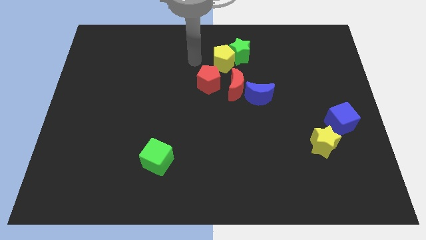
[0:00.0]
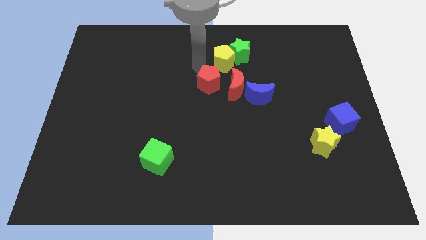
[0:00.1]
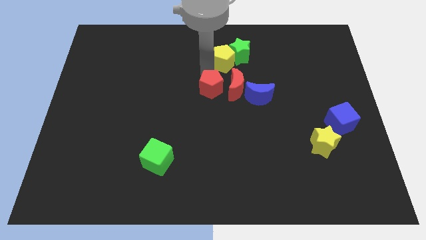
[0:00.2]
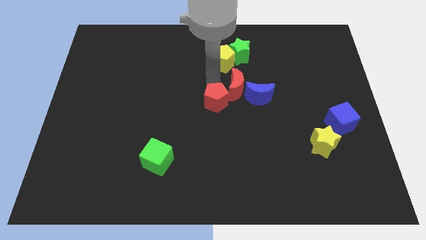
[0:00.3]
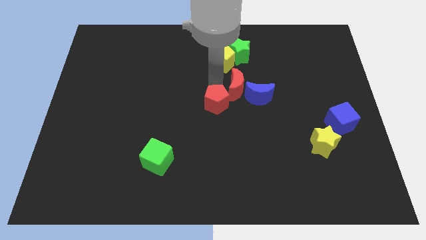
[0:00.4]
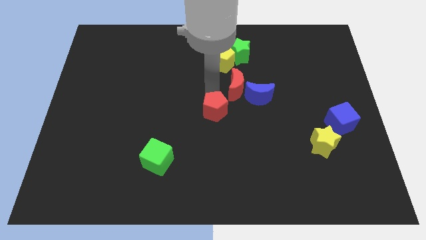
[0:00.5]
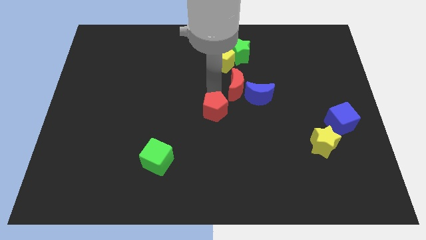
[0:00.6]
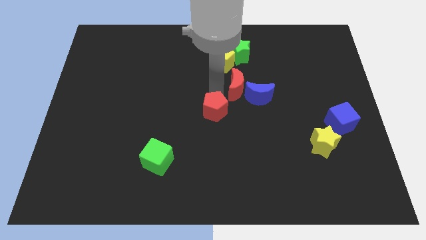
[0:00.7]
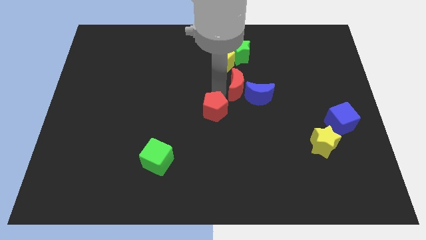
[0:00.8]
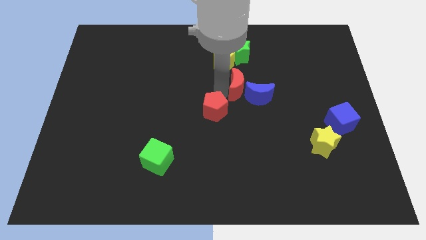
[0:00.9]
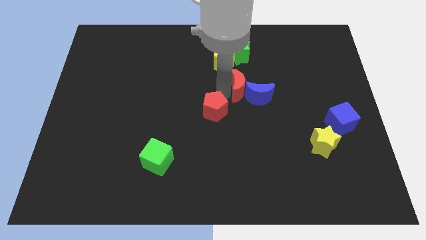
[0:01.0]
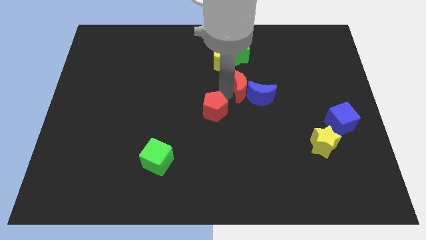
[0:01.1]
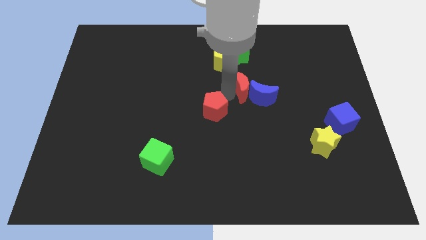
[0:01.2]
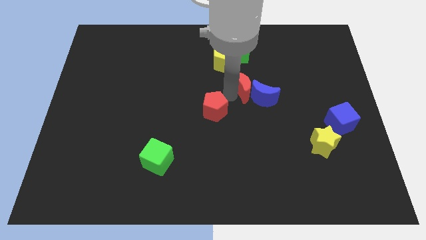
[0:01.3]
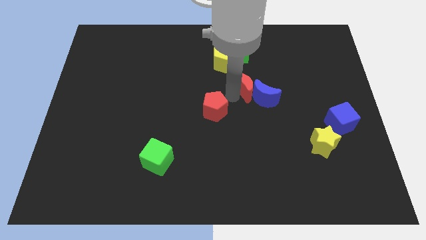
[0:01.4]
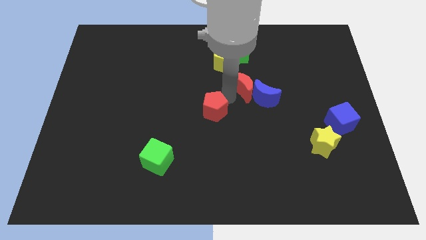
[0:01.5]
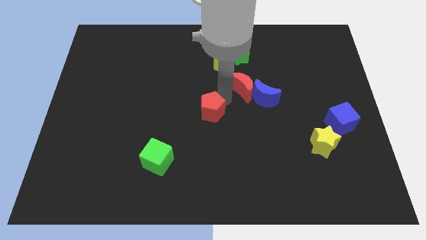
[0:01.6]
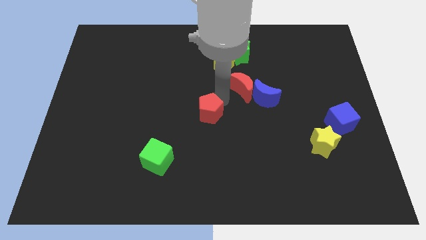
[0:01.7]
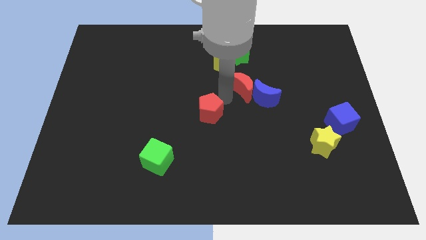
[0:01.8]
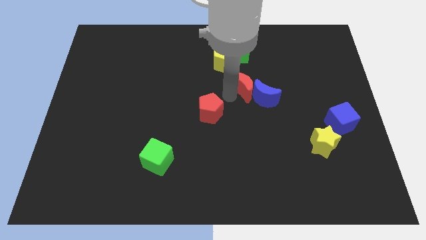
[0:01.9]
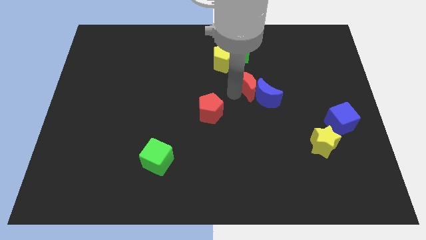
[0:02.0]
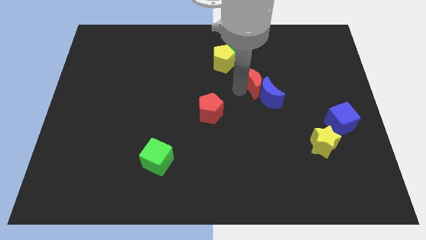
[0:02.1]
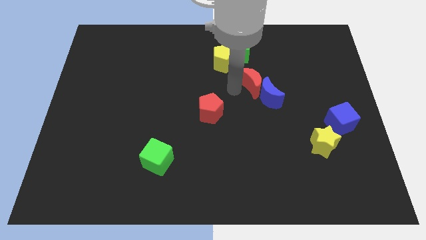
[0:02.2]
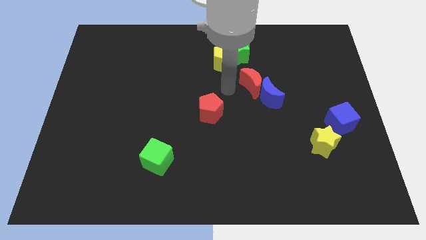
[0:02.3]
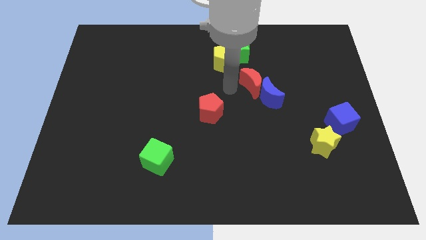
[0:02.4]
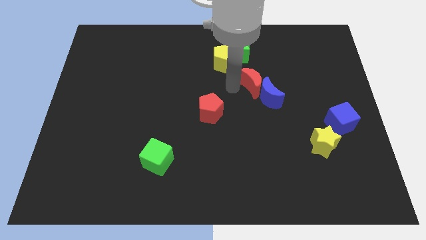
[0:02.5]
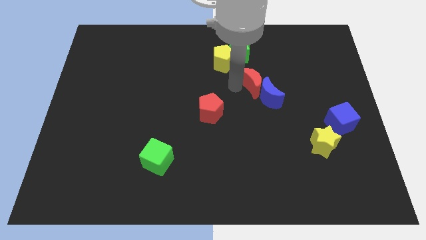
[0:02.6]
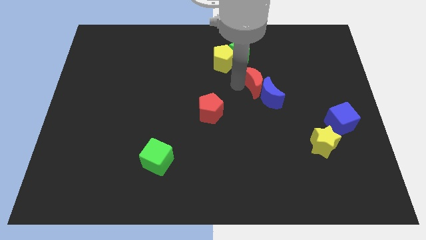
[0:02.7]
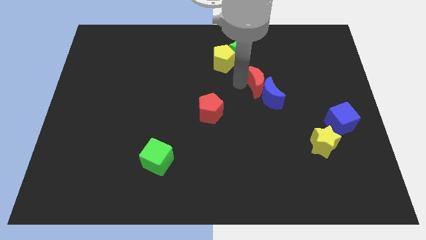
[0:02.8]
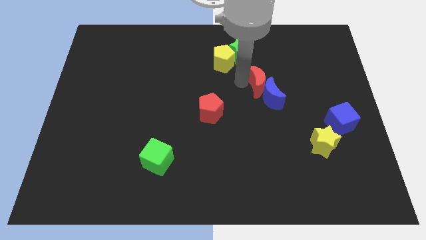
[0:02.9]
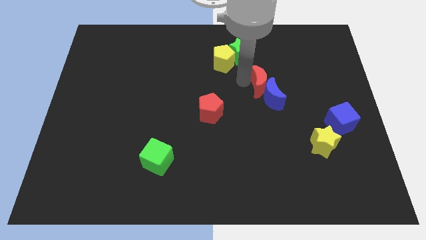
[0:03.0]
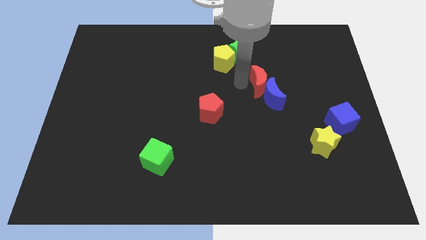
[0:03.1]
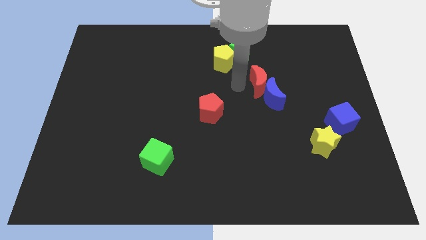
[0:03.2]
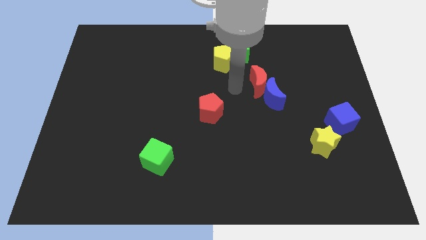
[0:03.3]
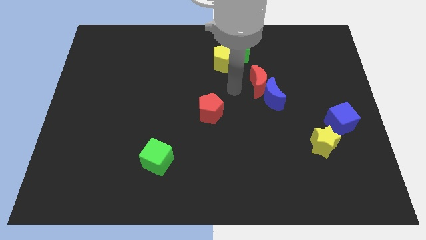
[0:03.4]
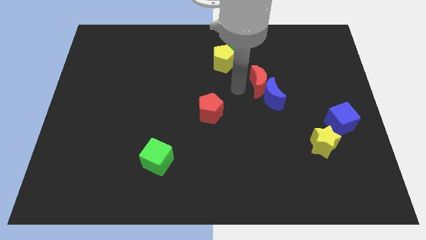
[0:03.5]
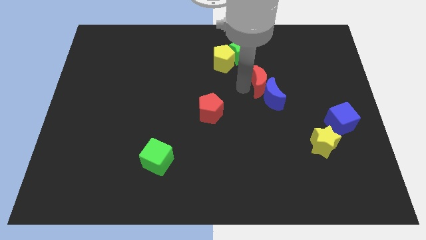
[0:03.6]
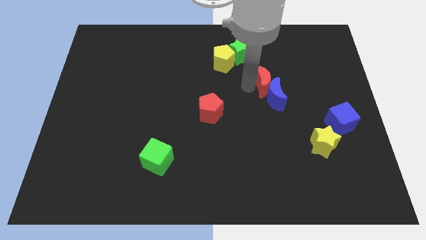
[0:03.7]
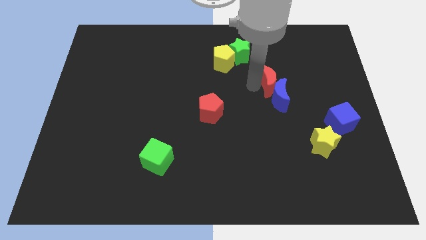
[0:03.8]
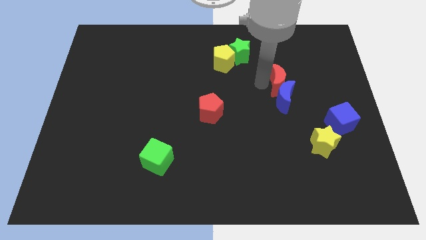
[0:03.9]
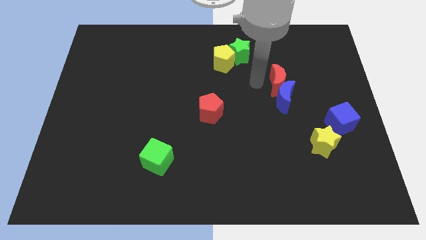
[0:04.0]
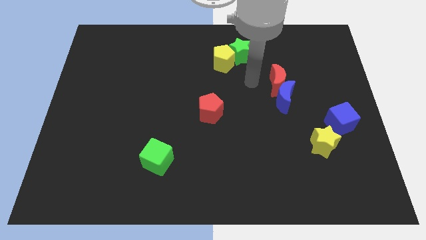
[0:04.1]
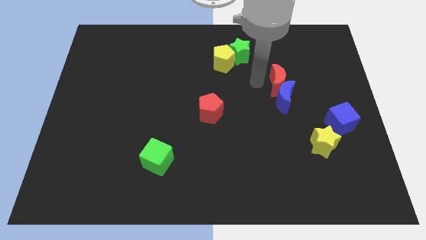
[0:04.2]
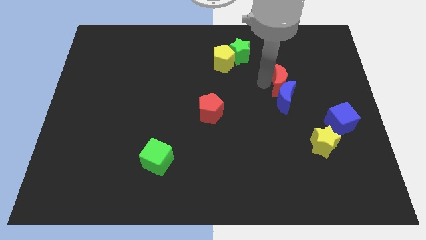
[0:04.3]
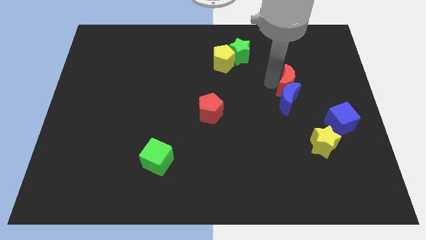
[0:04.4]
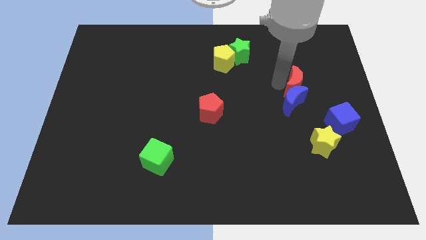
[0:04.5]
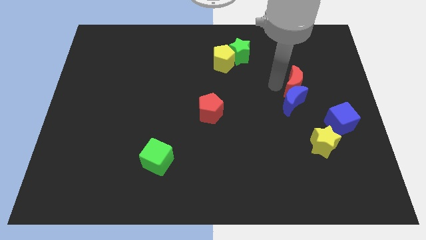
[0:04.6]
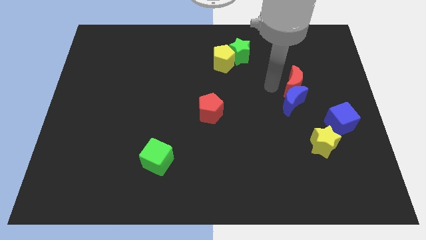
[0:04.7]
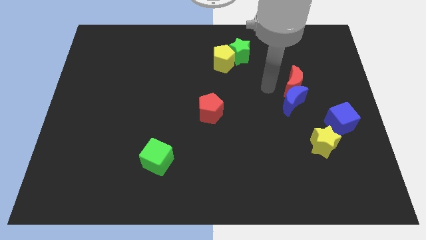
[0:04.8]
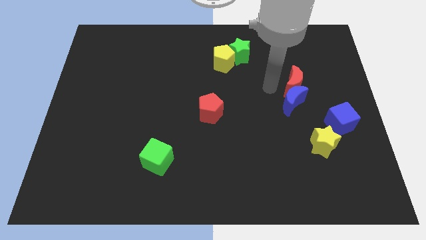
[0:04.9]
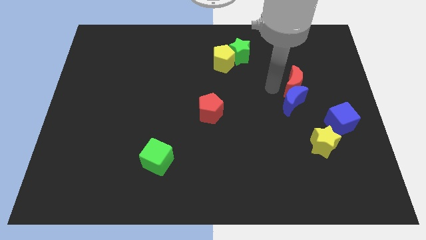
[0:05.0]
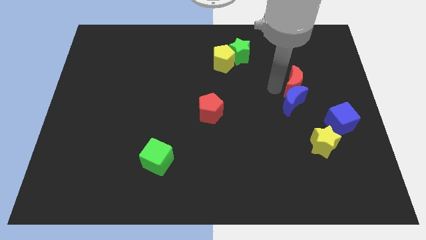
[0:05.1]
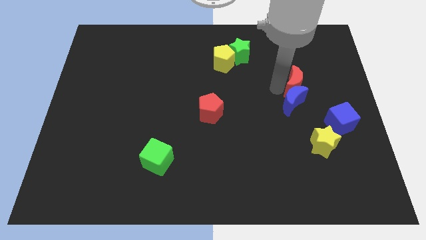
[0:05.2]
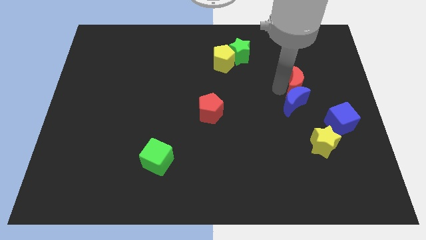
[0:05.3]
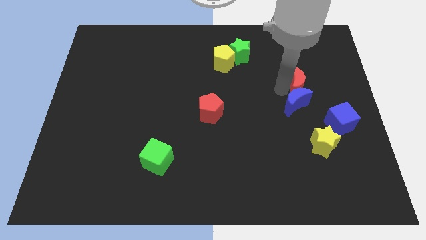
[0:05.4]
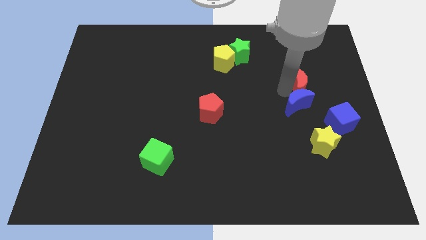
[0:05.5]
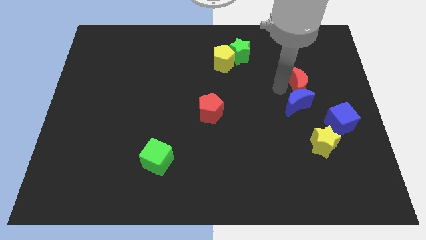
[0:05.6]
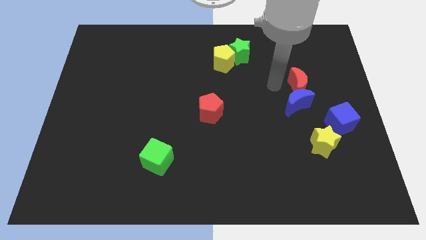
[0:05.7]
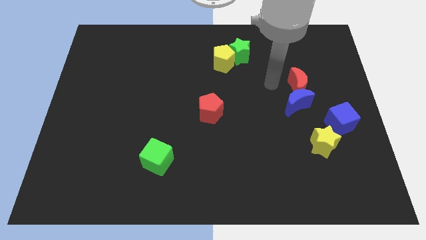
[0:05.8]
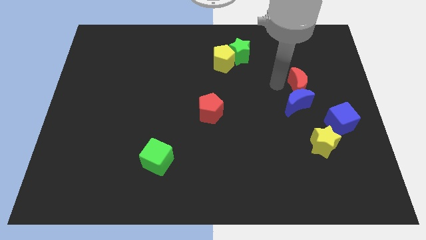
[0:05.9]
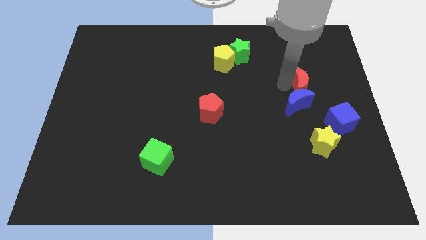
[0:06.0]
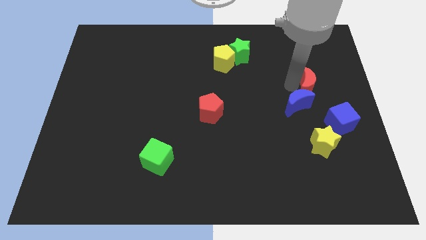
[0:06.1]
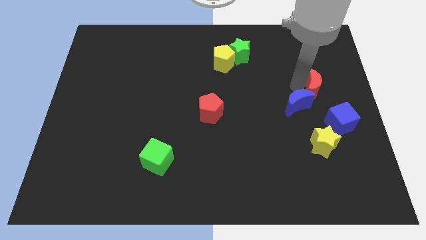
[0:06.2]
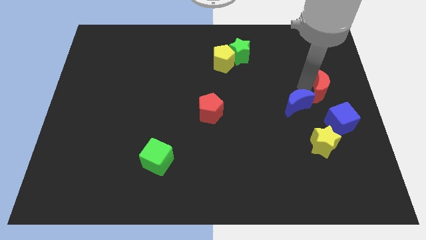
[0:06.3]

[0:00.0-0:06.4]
slide the red moon to the right side

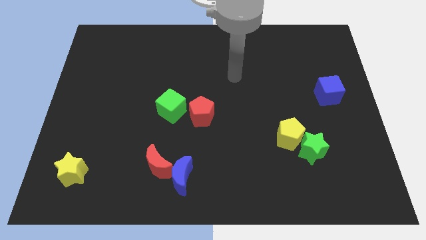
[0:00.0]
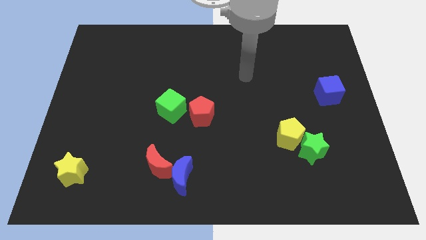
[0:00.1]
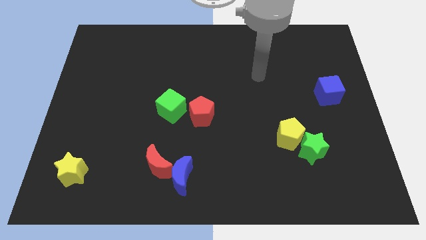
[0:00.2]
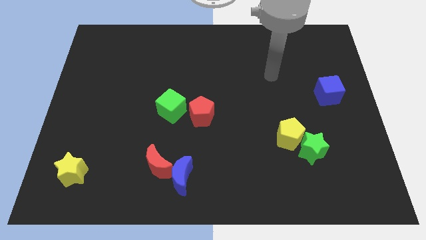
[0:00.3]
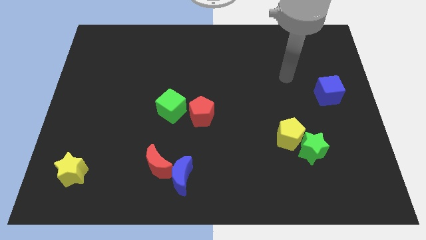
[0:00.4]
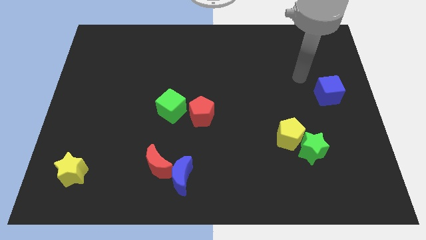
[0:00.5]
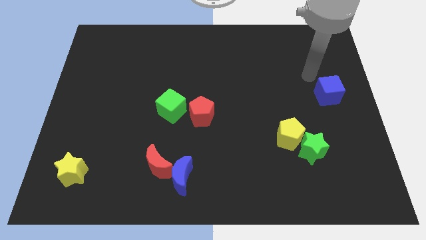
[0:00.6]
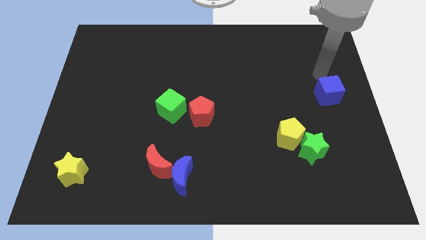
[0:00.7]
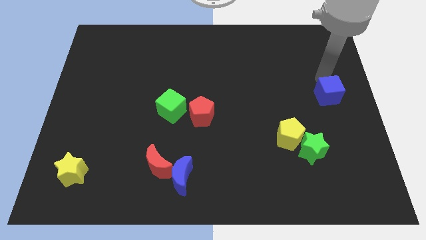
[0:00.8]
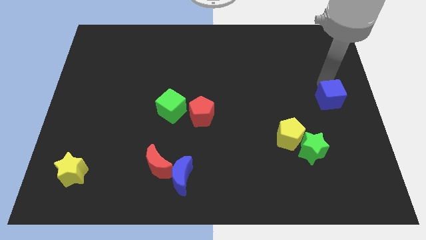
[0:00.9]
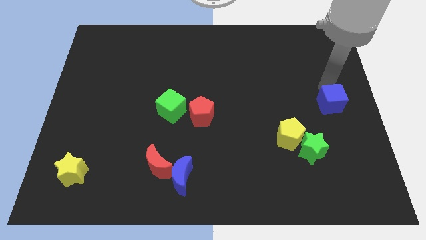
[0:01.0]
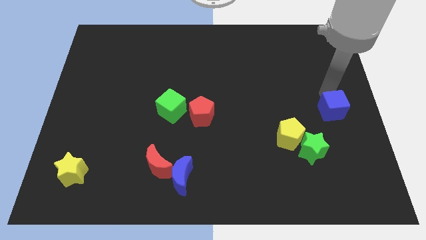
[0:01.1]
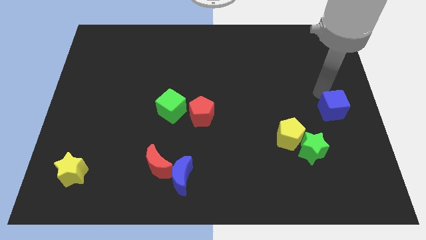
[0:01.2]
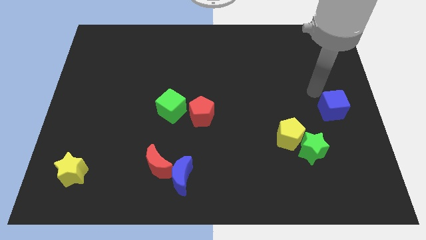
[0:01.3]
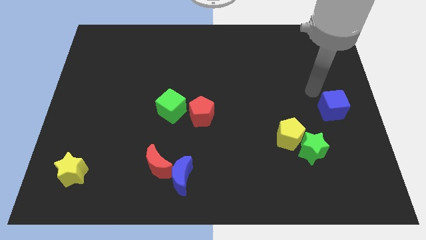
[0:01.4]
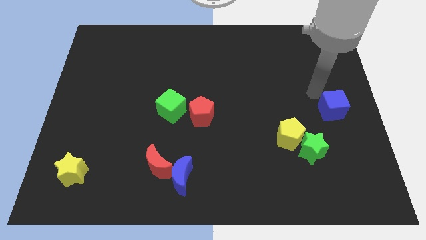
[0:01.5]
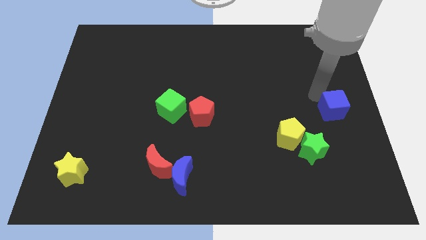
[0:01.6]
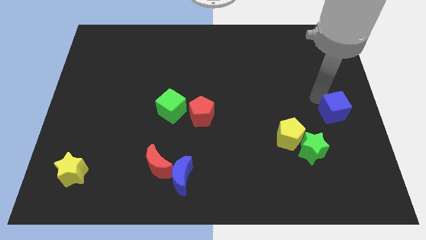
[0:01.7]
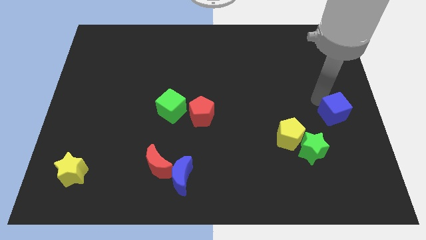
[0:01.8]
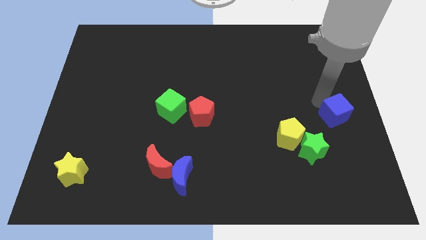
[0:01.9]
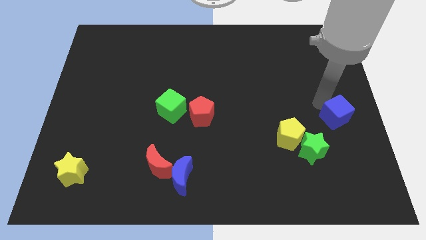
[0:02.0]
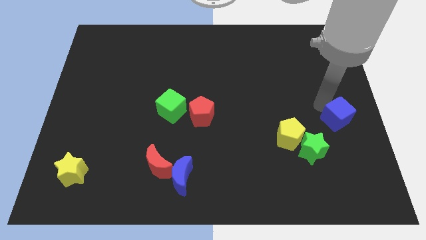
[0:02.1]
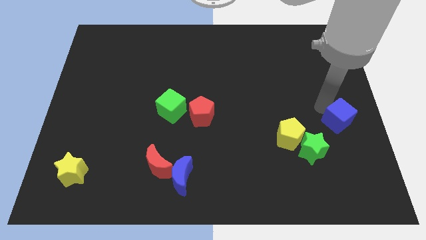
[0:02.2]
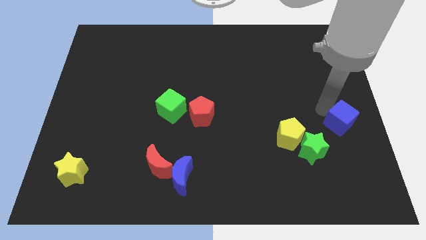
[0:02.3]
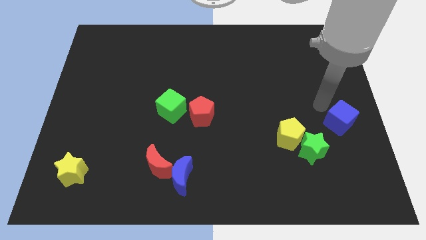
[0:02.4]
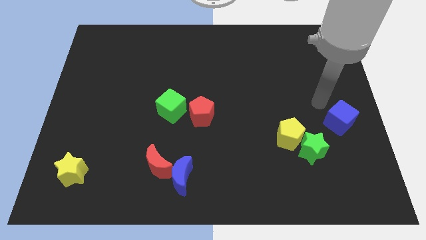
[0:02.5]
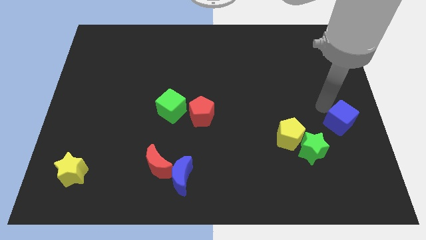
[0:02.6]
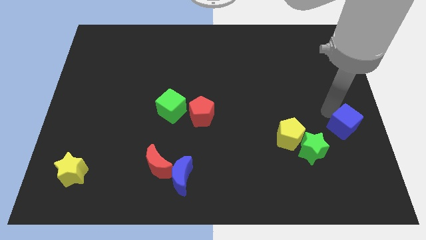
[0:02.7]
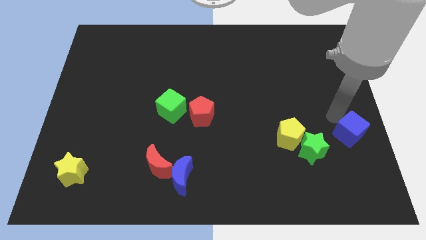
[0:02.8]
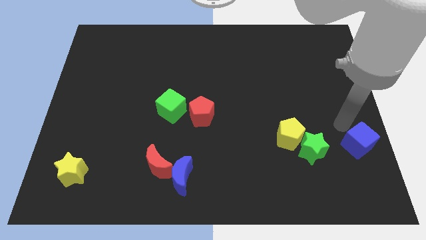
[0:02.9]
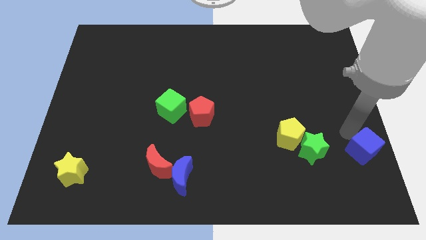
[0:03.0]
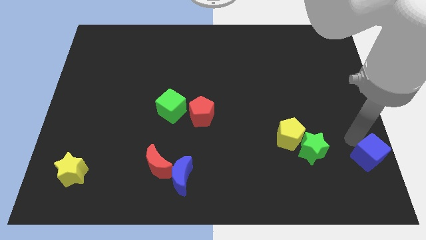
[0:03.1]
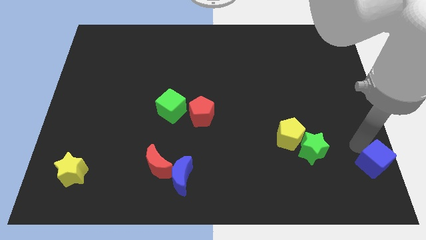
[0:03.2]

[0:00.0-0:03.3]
put the blue cube to the bottom right of the board
